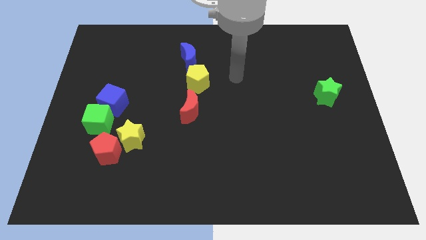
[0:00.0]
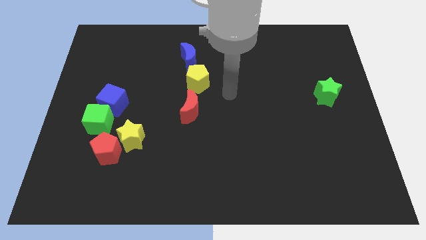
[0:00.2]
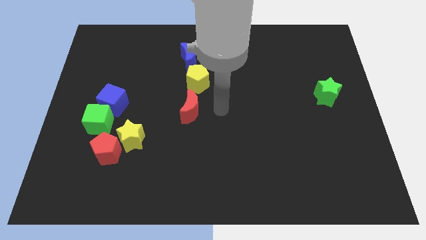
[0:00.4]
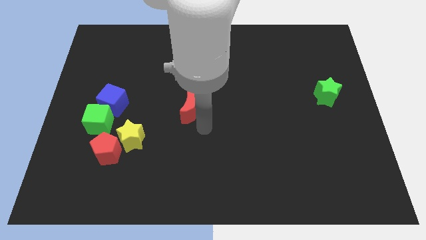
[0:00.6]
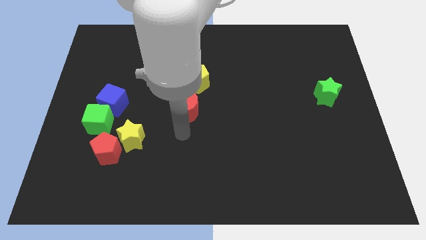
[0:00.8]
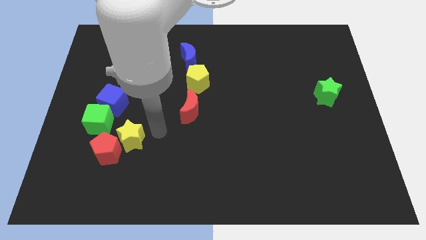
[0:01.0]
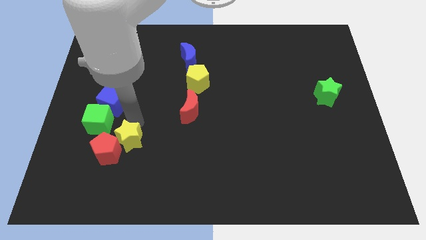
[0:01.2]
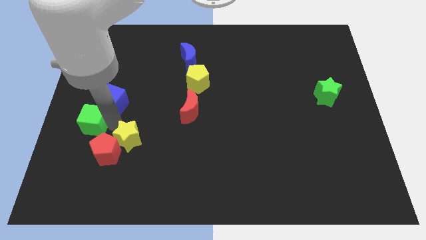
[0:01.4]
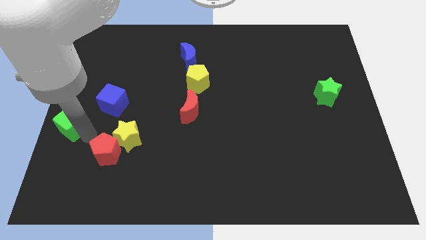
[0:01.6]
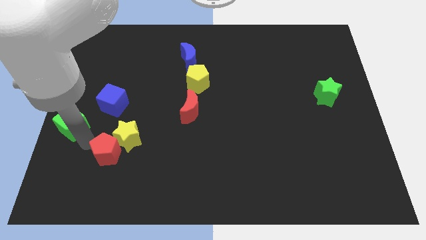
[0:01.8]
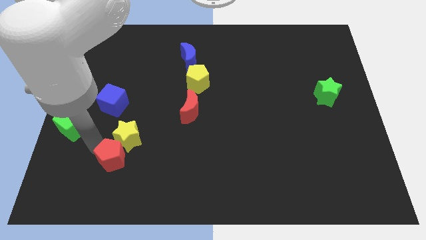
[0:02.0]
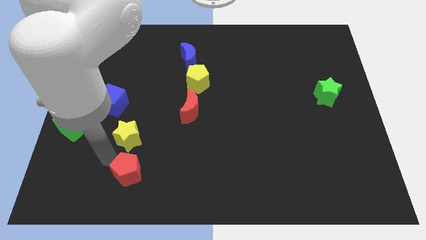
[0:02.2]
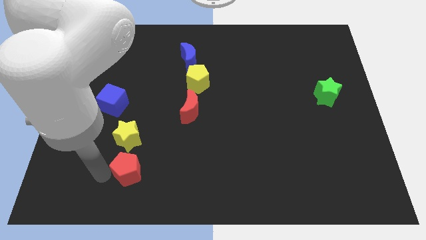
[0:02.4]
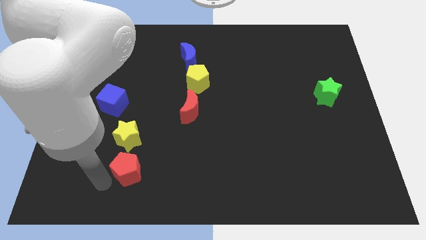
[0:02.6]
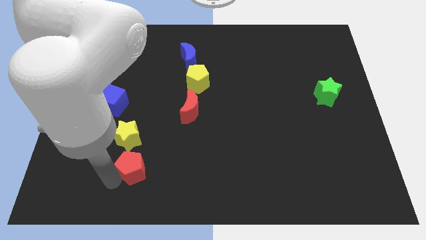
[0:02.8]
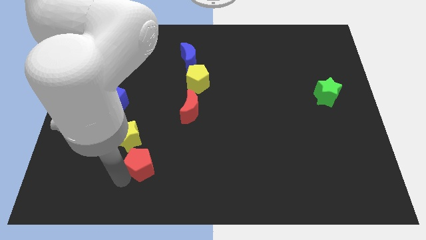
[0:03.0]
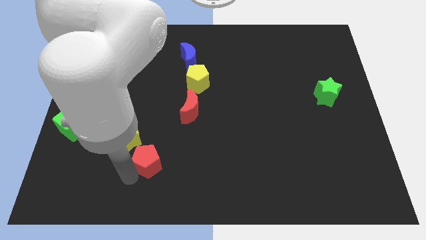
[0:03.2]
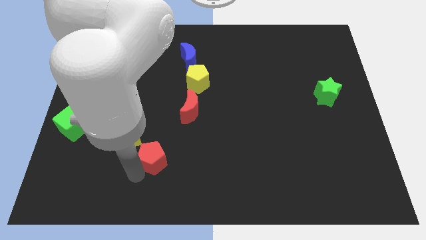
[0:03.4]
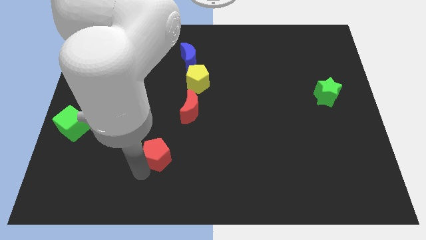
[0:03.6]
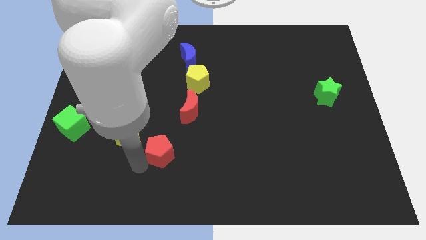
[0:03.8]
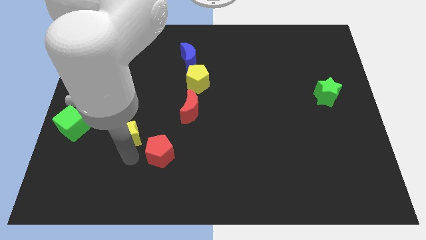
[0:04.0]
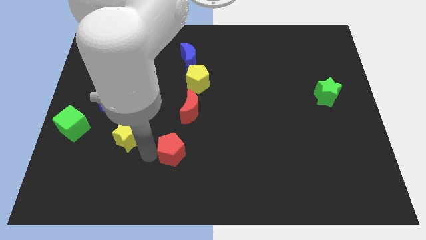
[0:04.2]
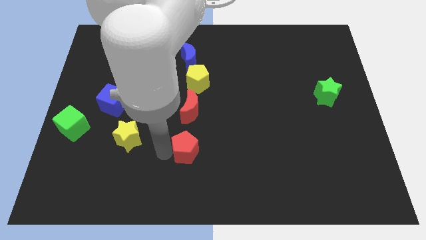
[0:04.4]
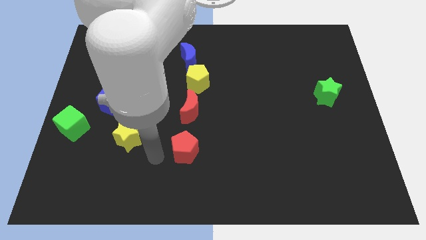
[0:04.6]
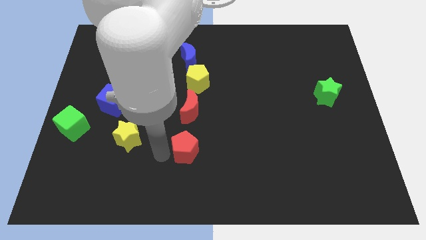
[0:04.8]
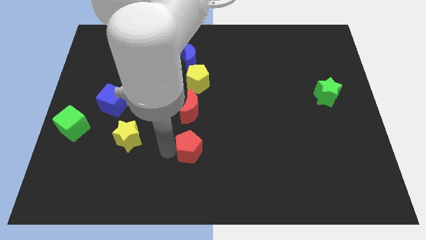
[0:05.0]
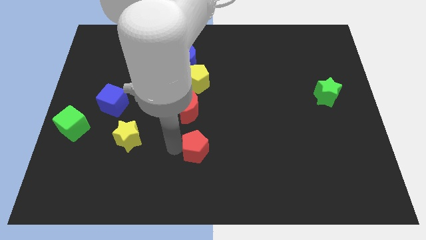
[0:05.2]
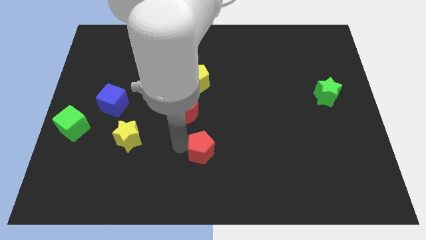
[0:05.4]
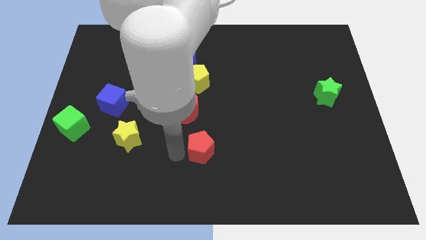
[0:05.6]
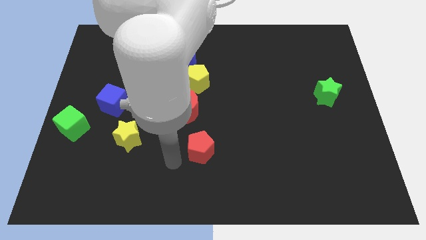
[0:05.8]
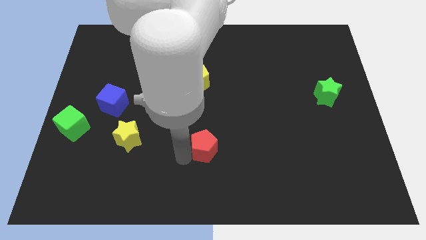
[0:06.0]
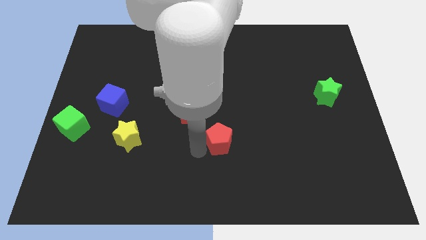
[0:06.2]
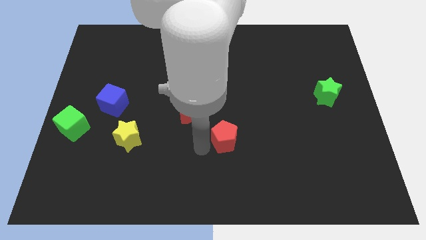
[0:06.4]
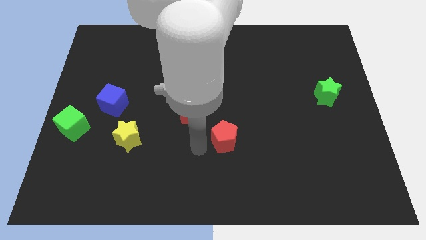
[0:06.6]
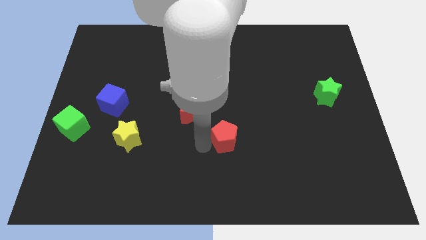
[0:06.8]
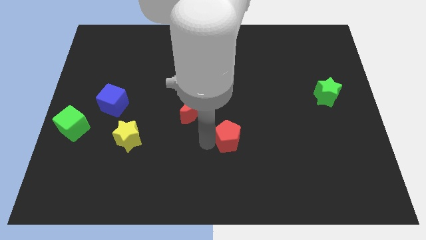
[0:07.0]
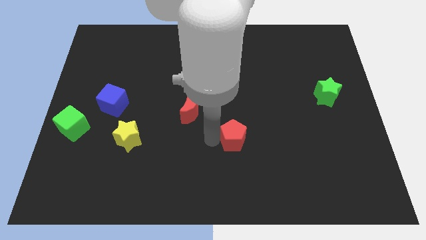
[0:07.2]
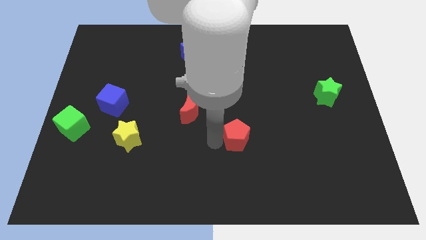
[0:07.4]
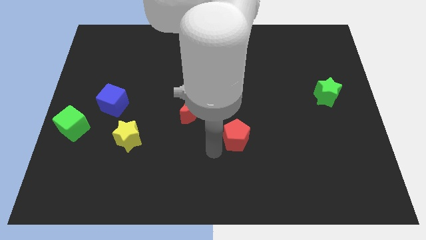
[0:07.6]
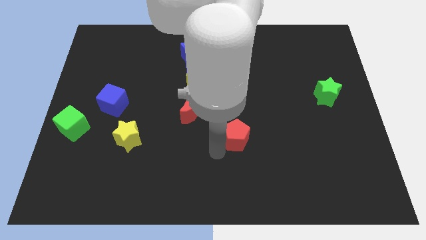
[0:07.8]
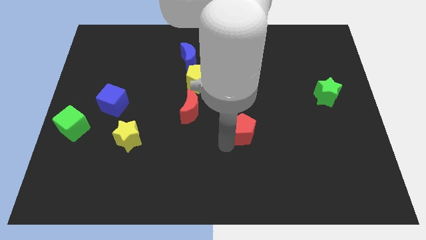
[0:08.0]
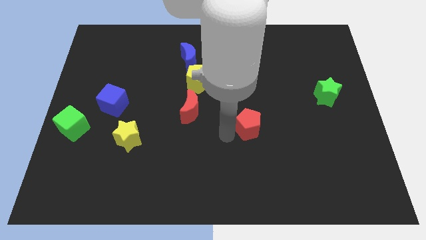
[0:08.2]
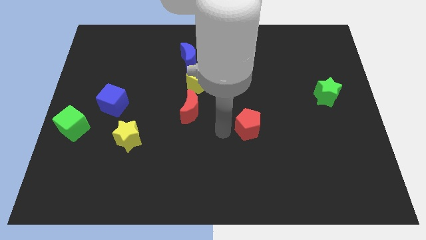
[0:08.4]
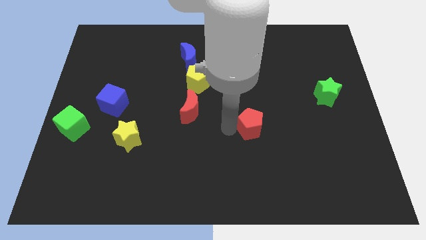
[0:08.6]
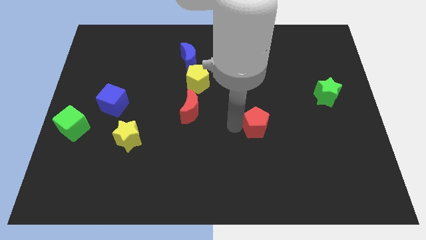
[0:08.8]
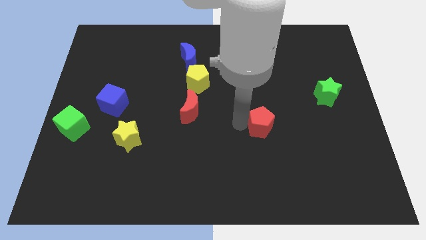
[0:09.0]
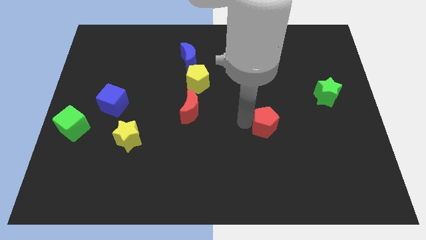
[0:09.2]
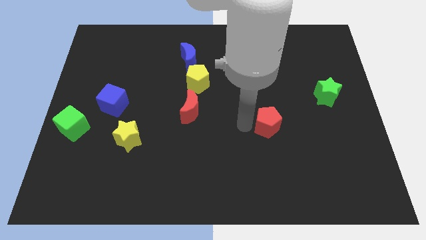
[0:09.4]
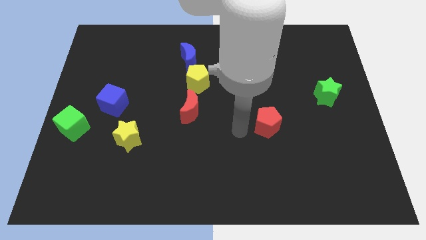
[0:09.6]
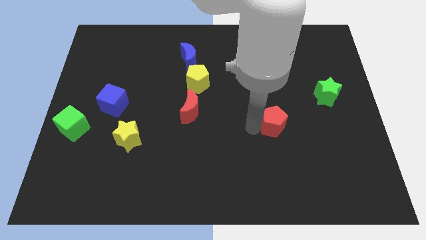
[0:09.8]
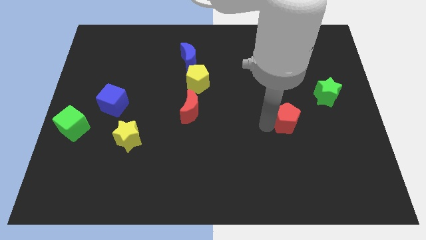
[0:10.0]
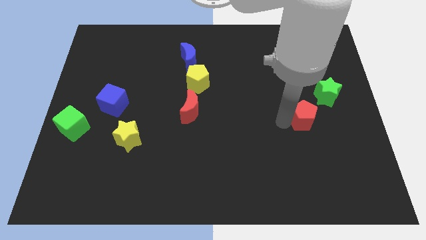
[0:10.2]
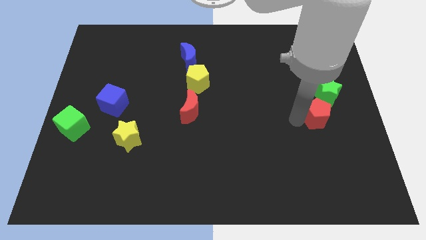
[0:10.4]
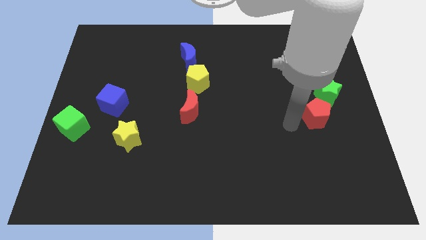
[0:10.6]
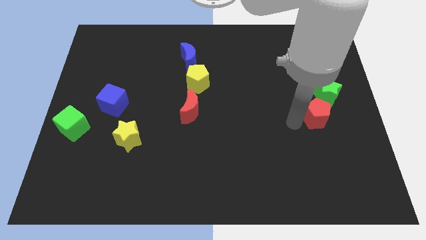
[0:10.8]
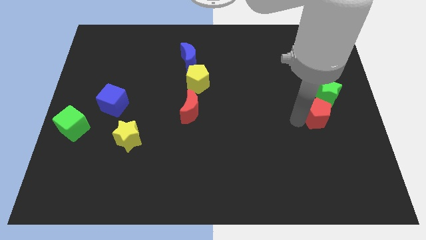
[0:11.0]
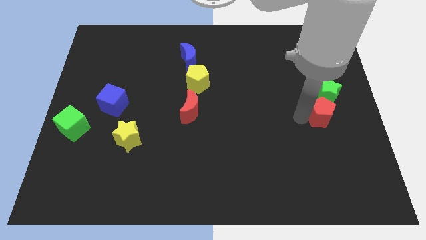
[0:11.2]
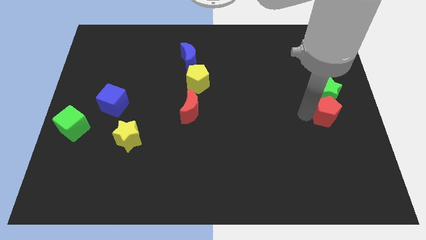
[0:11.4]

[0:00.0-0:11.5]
move the red pentagon to the right side

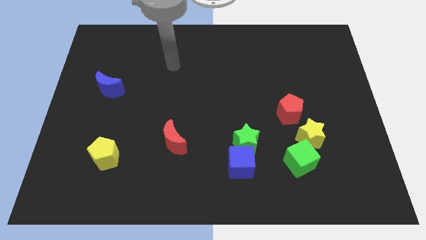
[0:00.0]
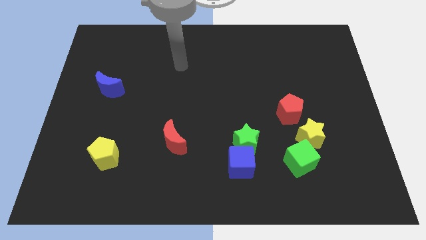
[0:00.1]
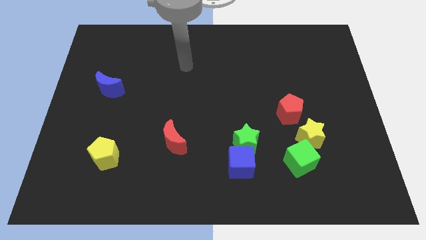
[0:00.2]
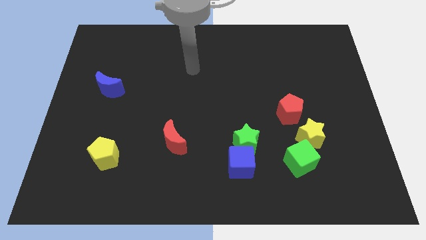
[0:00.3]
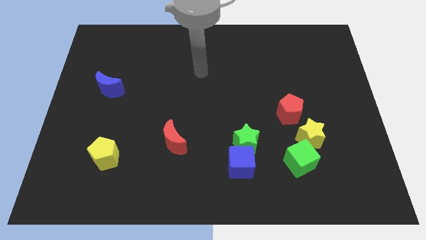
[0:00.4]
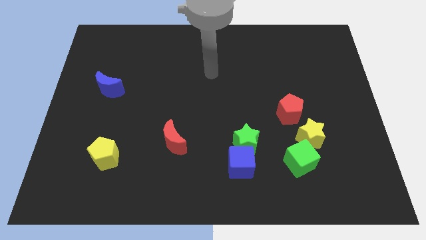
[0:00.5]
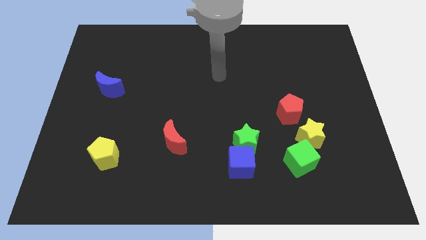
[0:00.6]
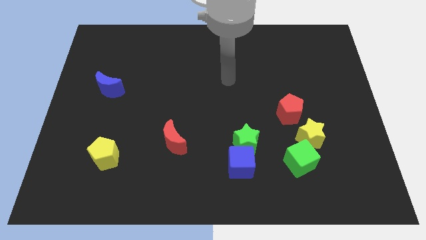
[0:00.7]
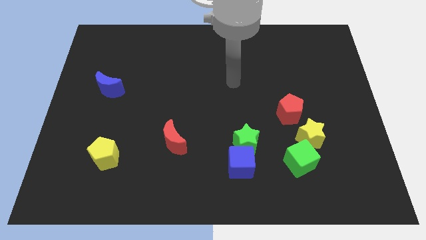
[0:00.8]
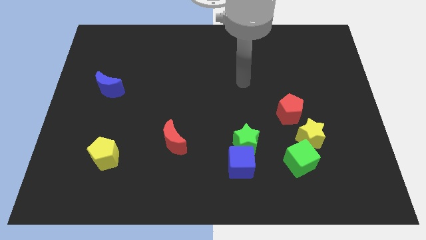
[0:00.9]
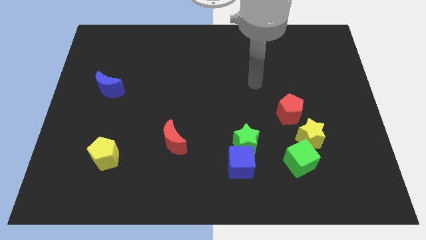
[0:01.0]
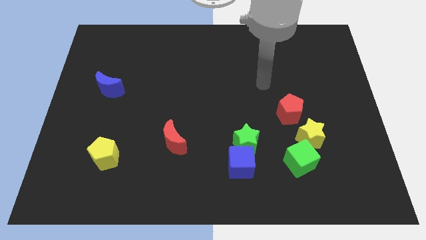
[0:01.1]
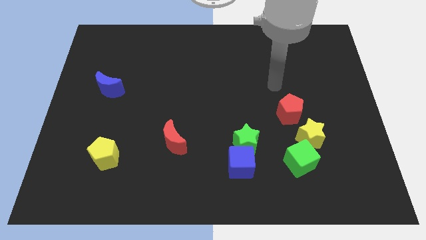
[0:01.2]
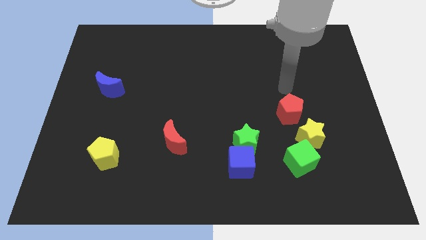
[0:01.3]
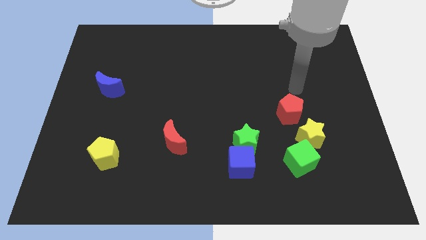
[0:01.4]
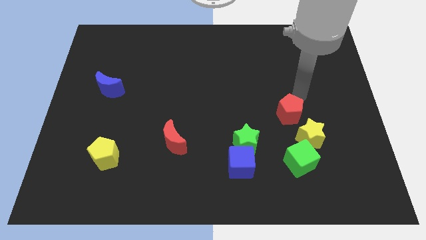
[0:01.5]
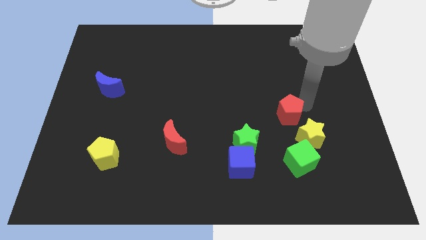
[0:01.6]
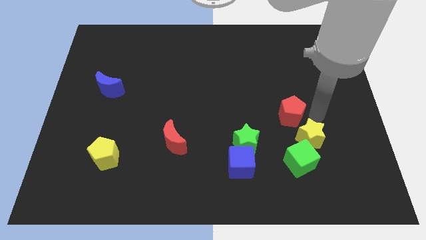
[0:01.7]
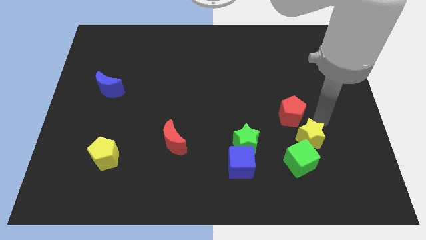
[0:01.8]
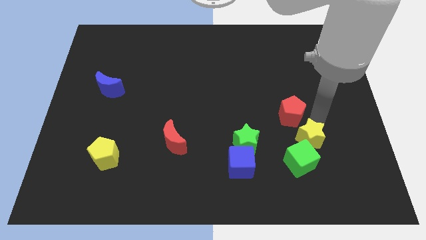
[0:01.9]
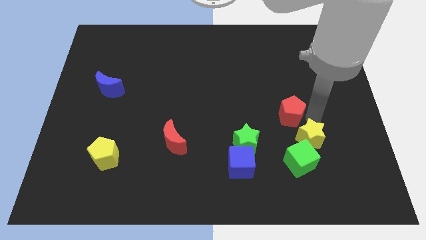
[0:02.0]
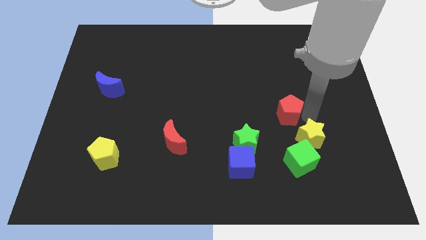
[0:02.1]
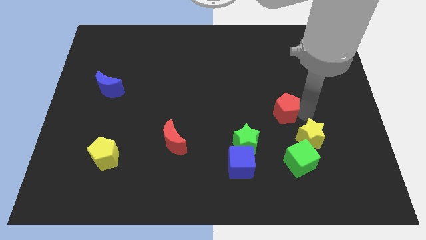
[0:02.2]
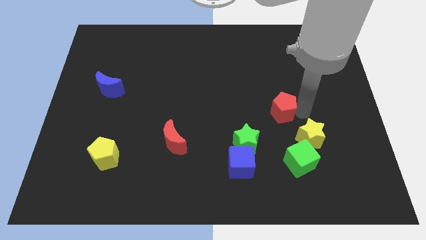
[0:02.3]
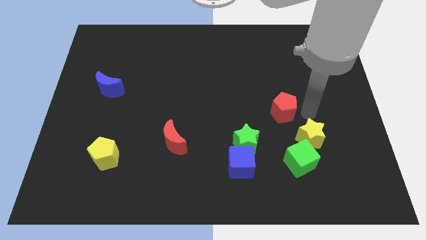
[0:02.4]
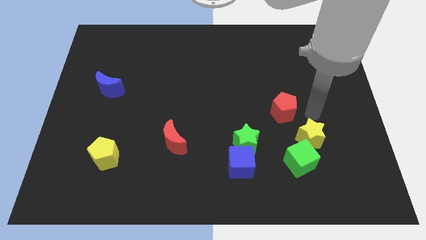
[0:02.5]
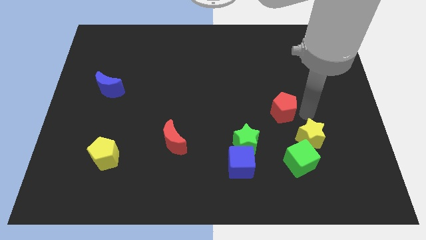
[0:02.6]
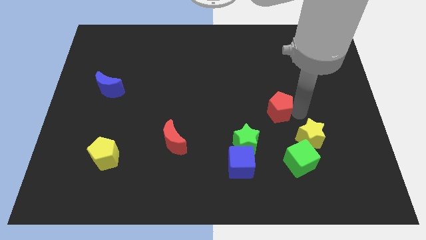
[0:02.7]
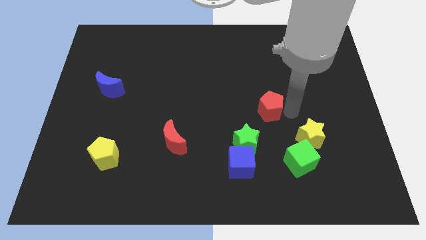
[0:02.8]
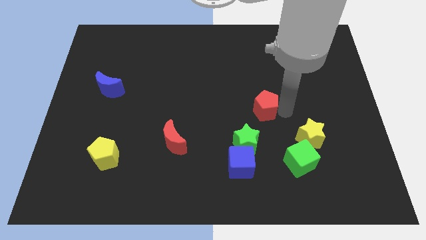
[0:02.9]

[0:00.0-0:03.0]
slide the red pentagon to the center of the board
